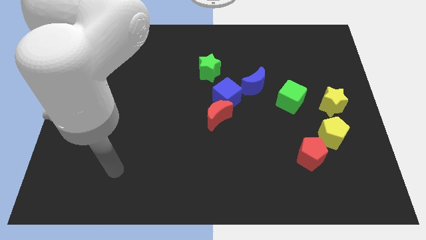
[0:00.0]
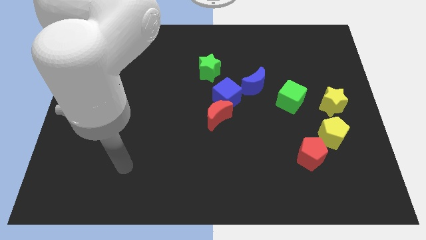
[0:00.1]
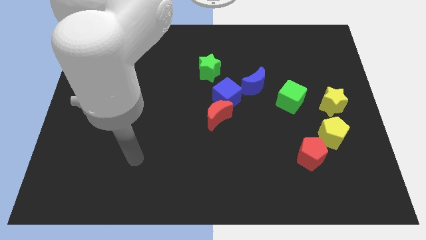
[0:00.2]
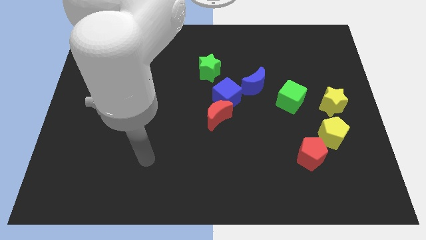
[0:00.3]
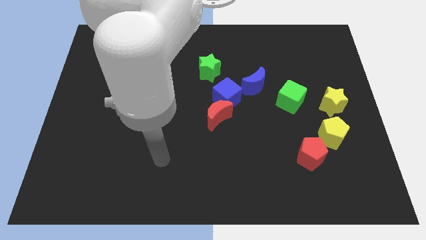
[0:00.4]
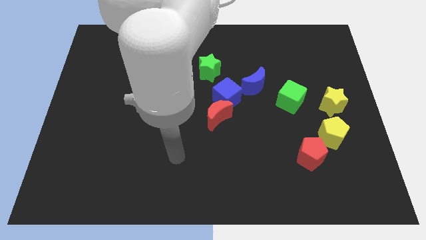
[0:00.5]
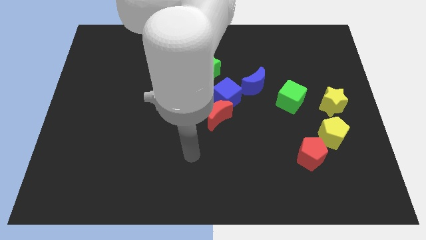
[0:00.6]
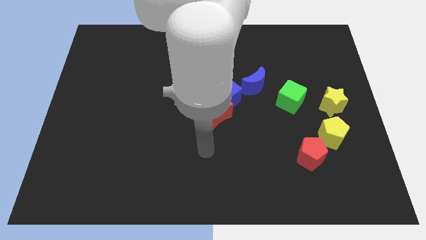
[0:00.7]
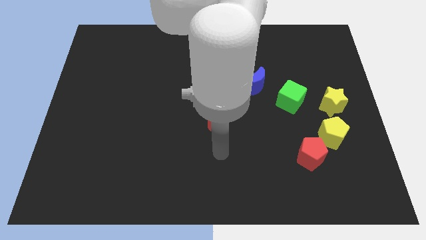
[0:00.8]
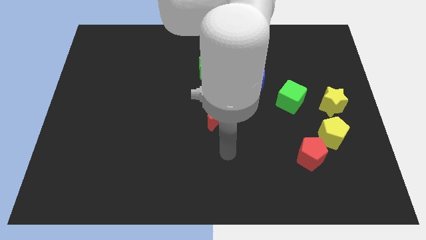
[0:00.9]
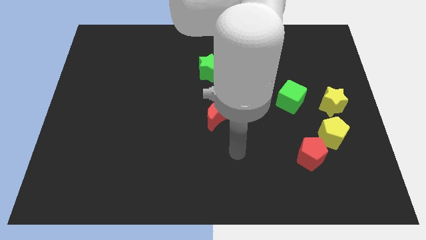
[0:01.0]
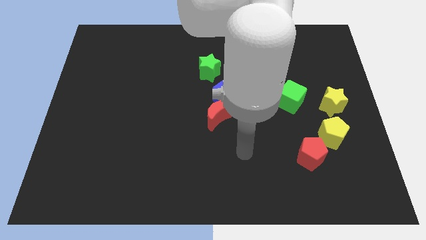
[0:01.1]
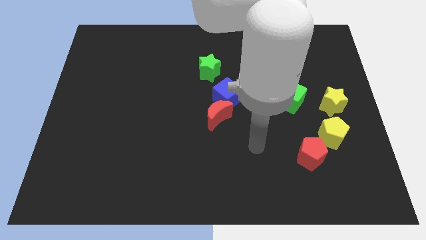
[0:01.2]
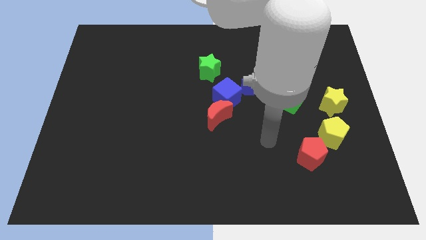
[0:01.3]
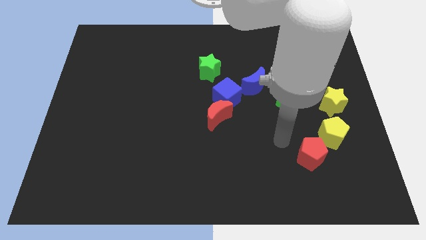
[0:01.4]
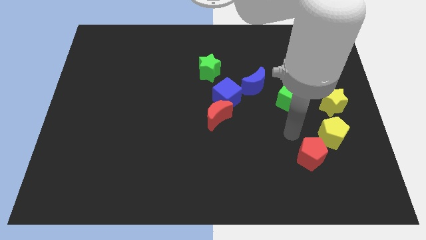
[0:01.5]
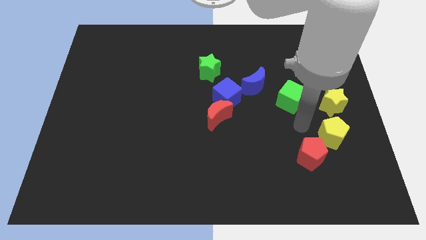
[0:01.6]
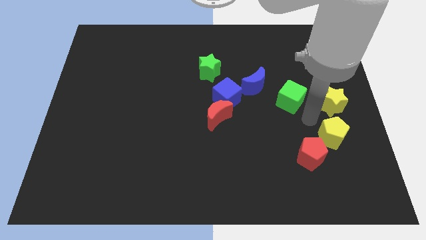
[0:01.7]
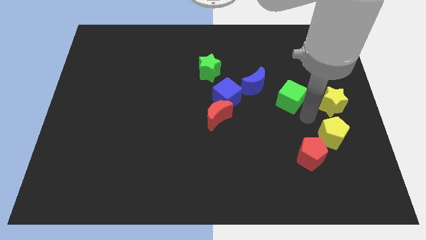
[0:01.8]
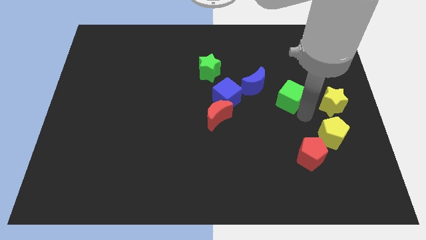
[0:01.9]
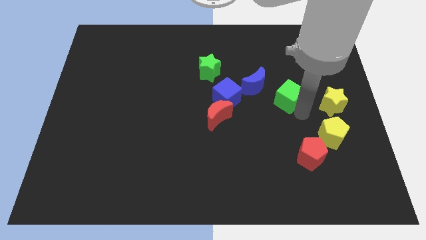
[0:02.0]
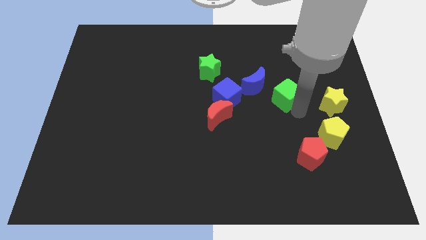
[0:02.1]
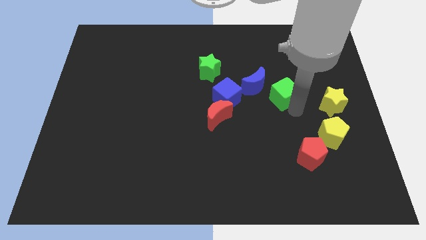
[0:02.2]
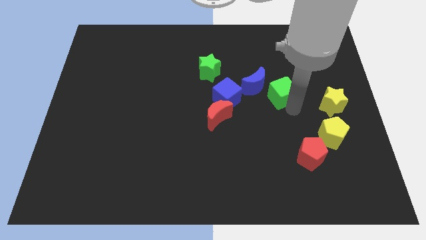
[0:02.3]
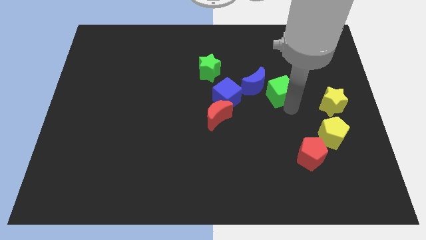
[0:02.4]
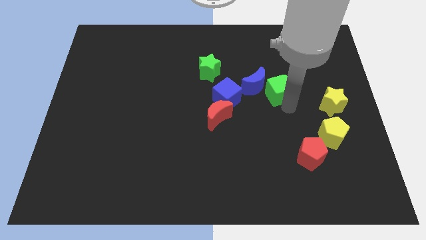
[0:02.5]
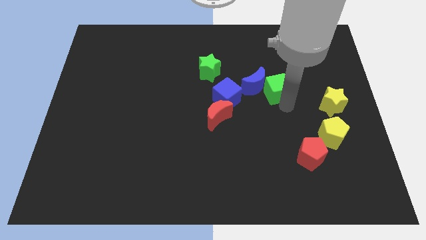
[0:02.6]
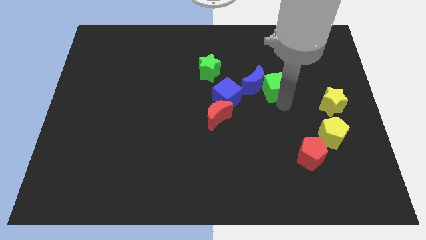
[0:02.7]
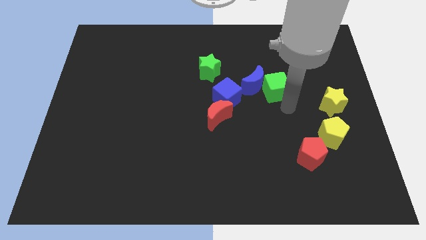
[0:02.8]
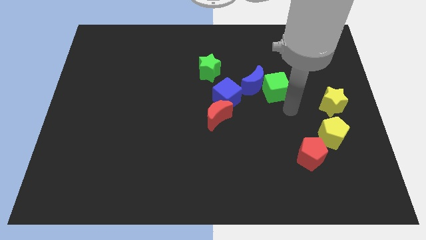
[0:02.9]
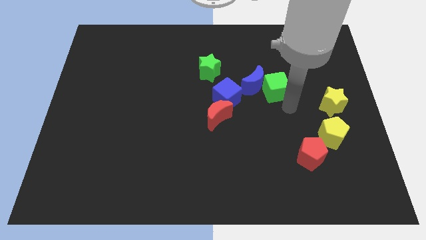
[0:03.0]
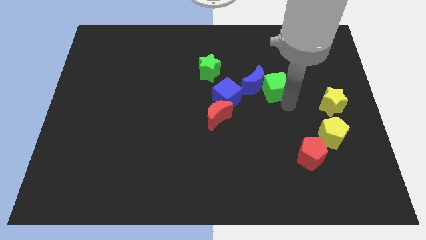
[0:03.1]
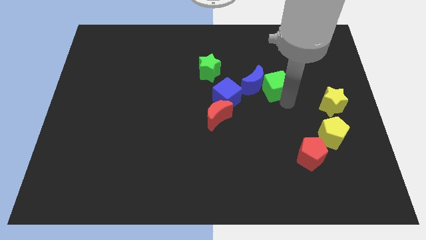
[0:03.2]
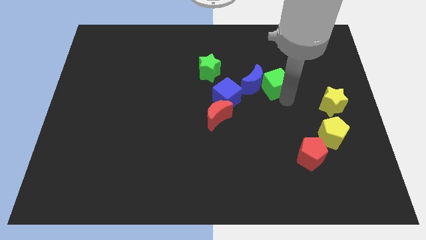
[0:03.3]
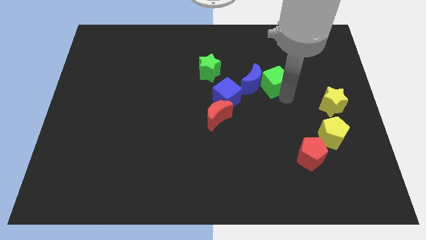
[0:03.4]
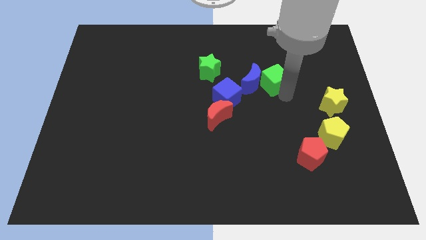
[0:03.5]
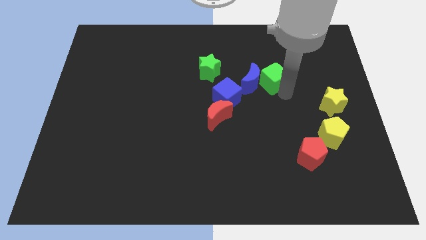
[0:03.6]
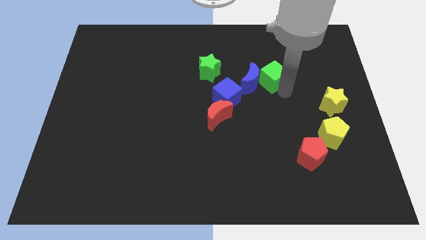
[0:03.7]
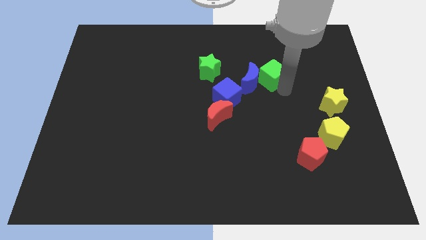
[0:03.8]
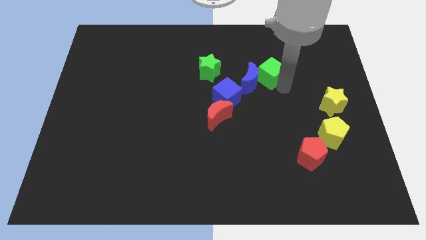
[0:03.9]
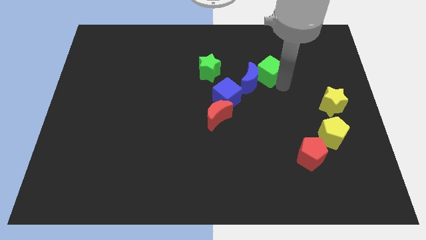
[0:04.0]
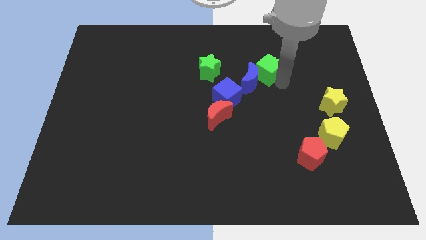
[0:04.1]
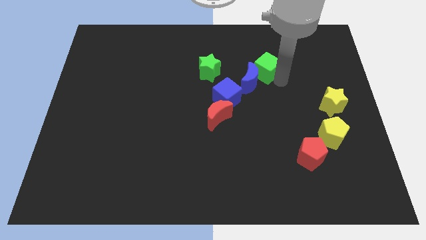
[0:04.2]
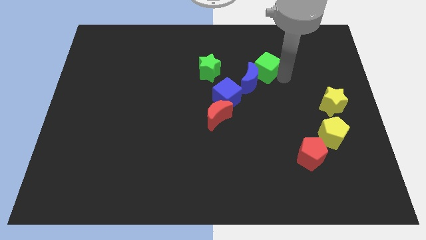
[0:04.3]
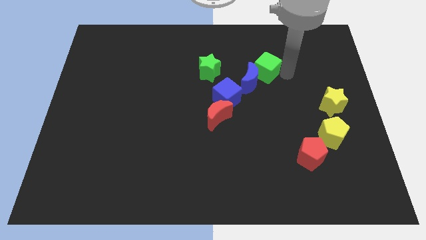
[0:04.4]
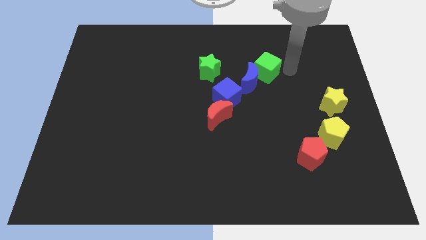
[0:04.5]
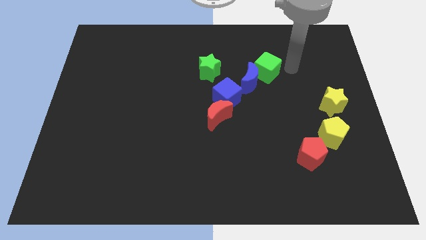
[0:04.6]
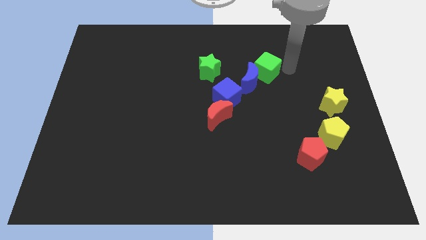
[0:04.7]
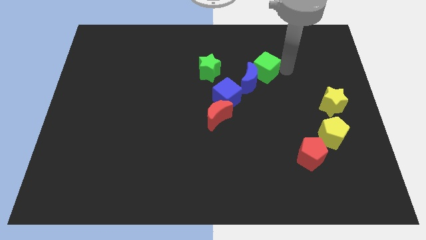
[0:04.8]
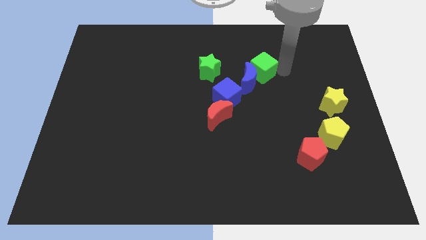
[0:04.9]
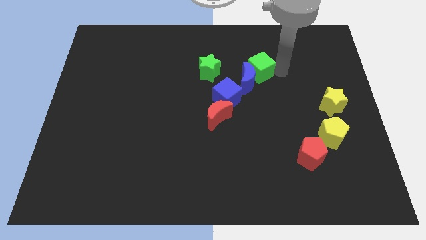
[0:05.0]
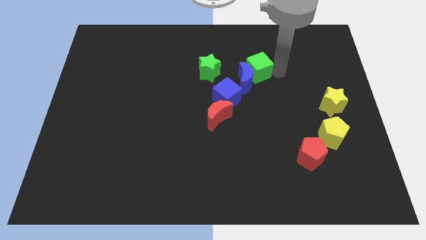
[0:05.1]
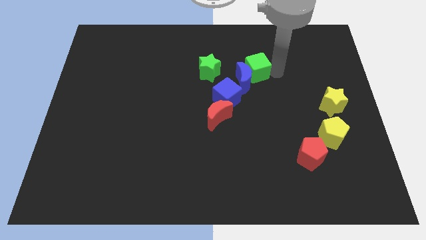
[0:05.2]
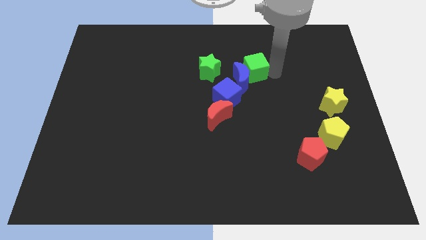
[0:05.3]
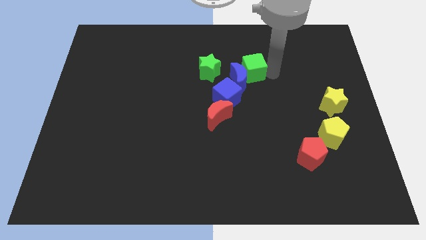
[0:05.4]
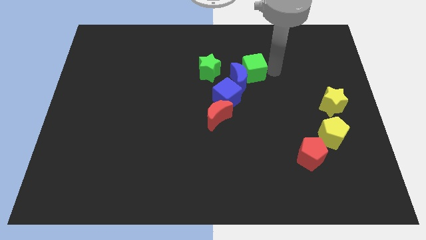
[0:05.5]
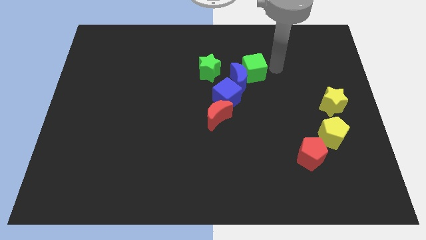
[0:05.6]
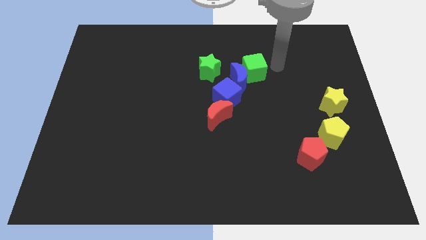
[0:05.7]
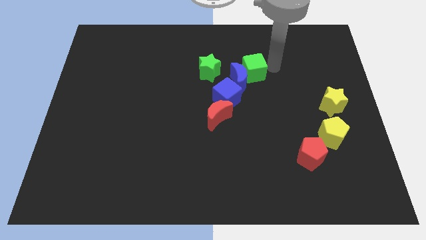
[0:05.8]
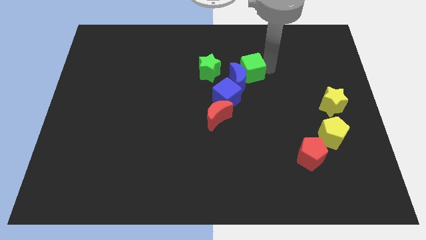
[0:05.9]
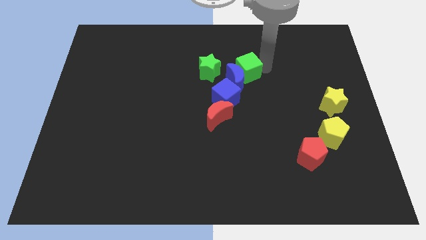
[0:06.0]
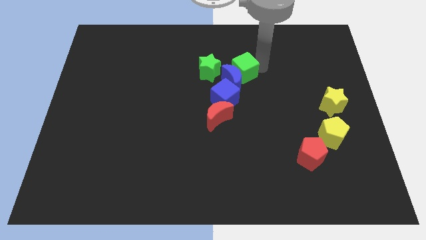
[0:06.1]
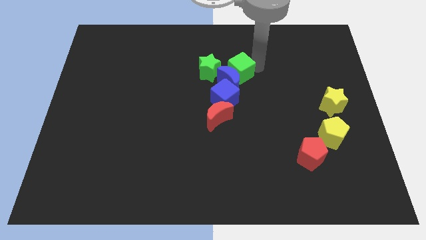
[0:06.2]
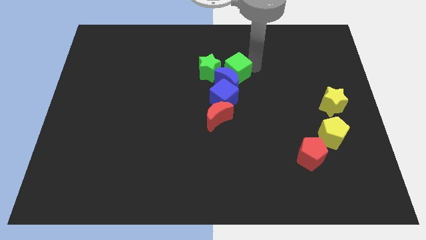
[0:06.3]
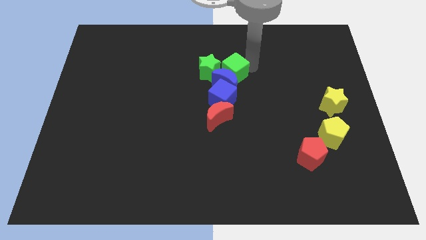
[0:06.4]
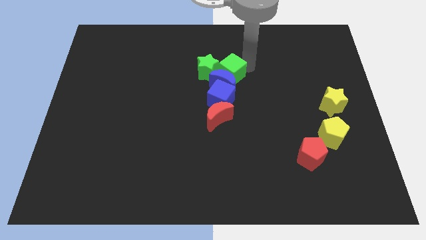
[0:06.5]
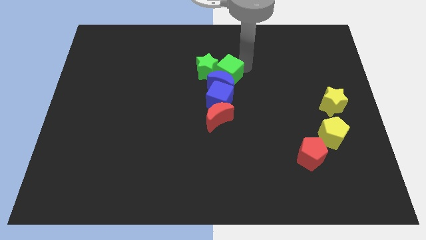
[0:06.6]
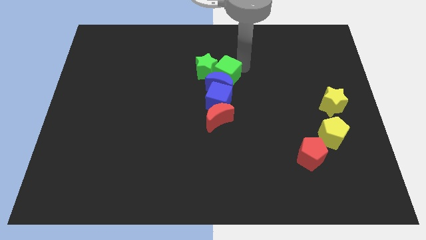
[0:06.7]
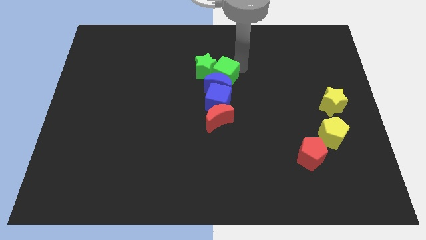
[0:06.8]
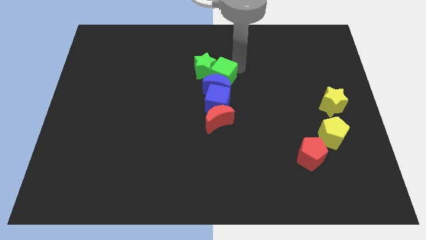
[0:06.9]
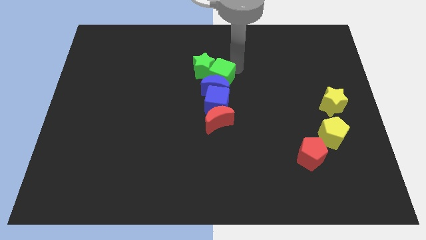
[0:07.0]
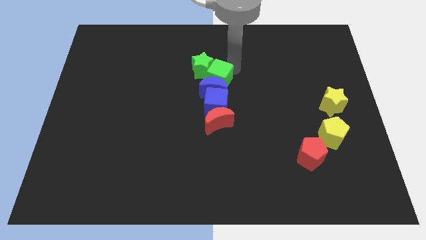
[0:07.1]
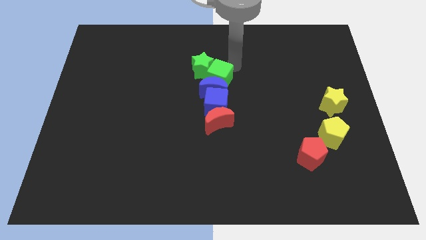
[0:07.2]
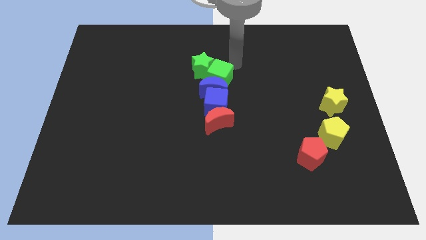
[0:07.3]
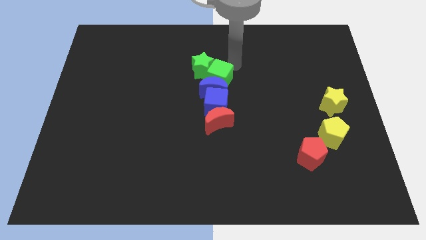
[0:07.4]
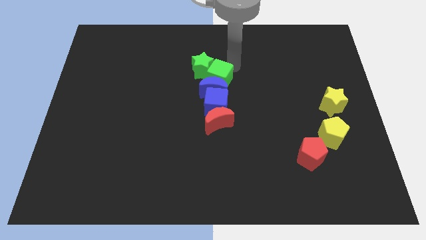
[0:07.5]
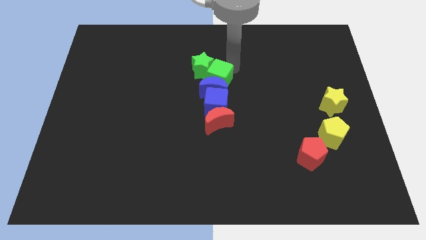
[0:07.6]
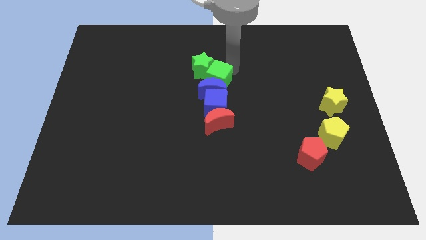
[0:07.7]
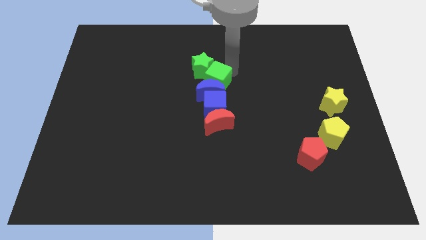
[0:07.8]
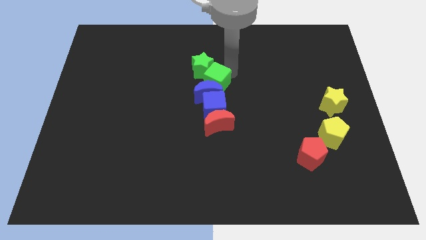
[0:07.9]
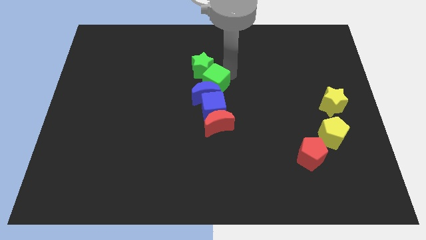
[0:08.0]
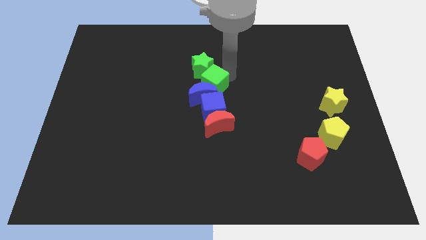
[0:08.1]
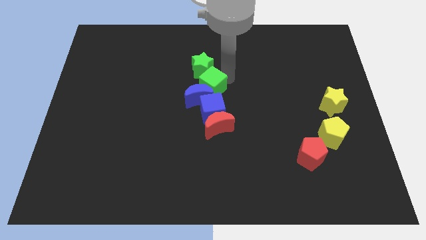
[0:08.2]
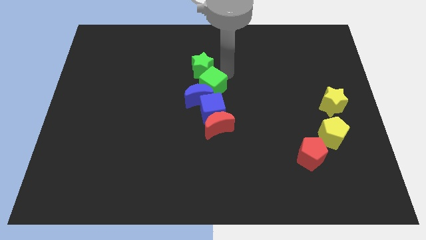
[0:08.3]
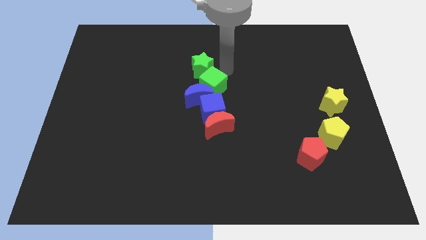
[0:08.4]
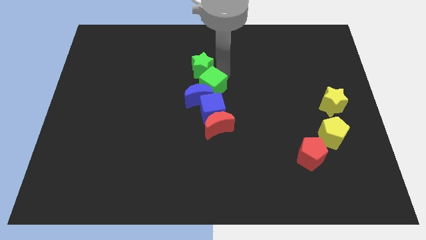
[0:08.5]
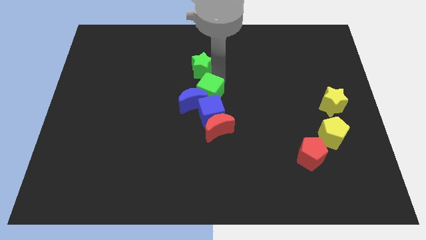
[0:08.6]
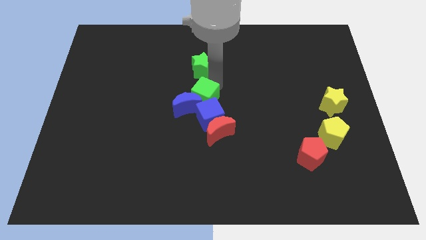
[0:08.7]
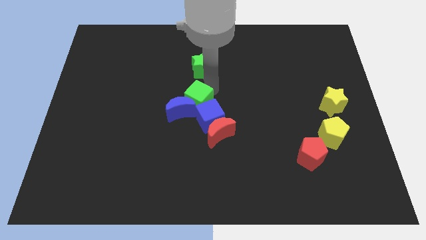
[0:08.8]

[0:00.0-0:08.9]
put the green cube to the top left side of the red moon
